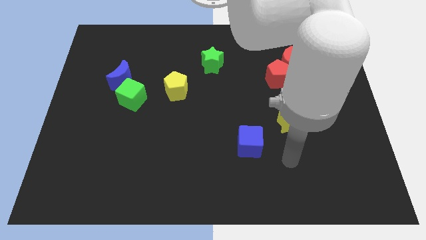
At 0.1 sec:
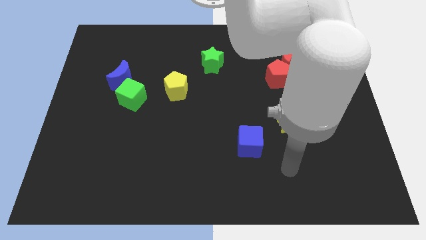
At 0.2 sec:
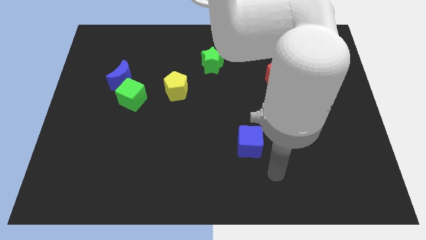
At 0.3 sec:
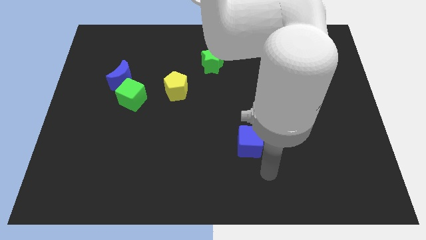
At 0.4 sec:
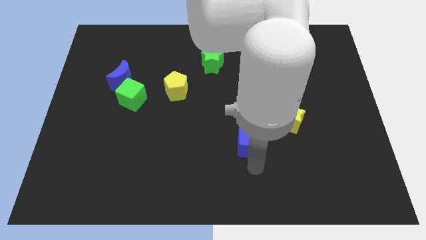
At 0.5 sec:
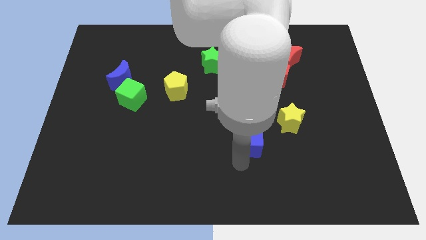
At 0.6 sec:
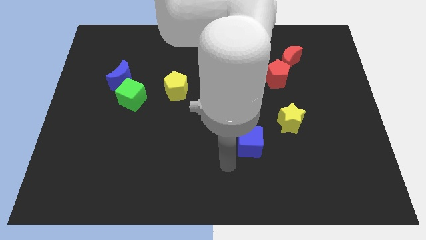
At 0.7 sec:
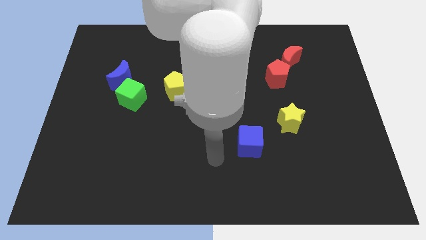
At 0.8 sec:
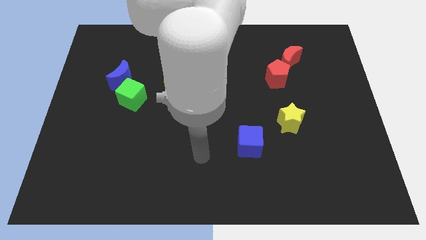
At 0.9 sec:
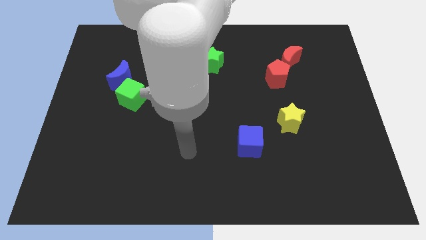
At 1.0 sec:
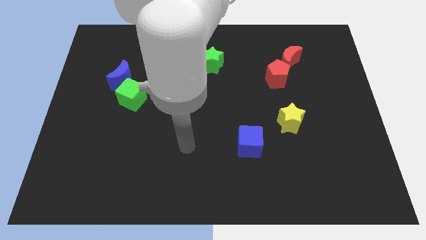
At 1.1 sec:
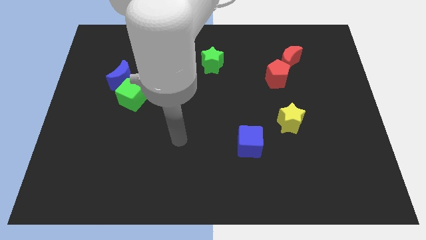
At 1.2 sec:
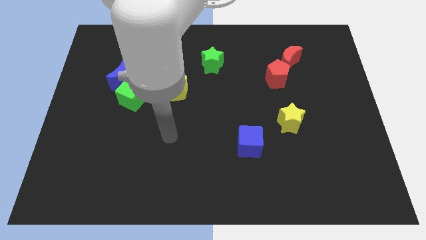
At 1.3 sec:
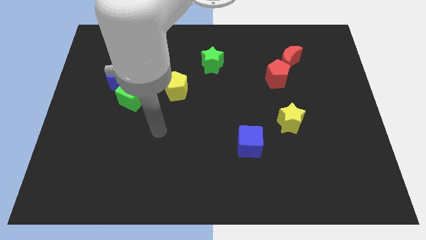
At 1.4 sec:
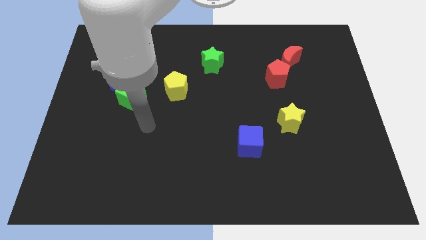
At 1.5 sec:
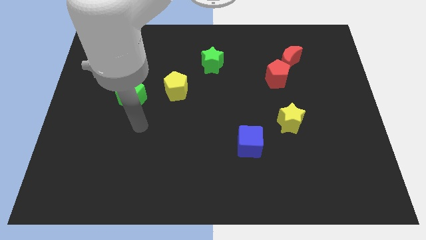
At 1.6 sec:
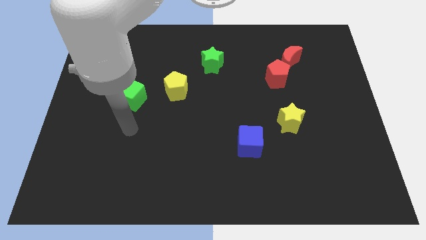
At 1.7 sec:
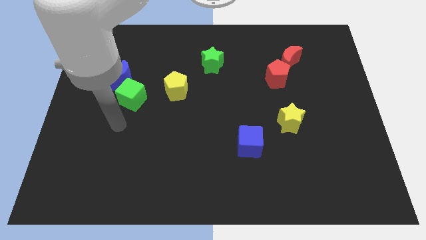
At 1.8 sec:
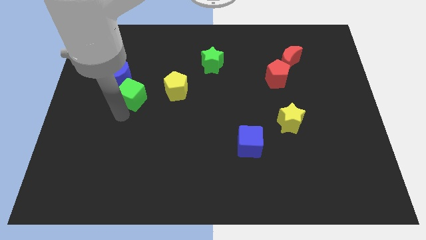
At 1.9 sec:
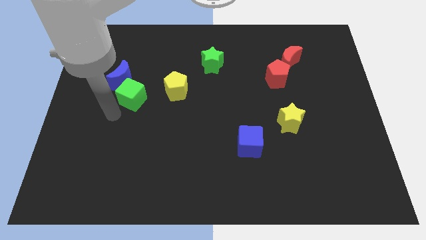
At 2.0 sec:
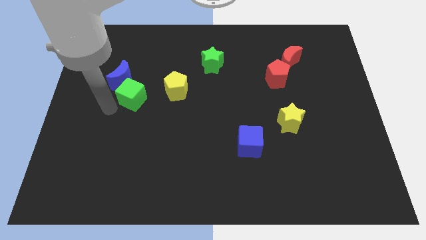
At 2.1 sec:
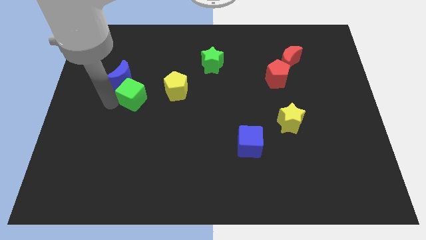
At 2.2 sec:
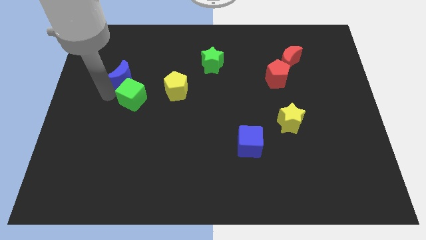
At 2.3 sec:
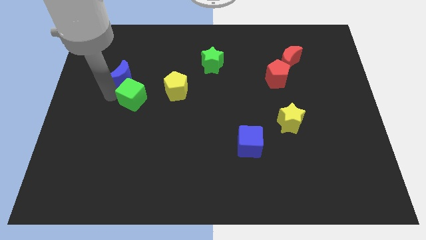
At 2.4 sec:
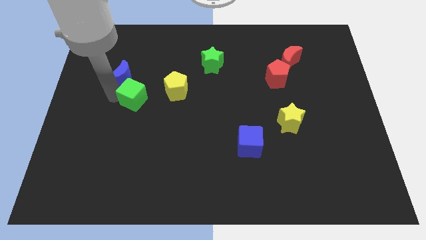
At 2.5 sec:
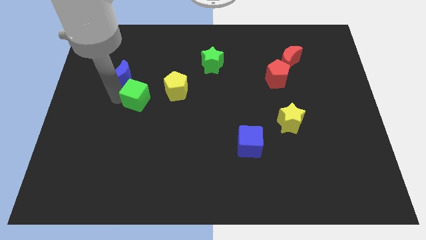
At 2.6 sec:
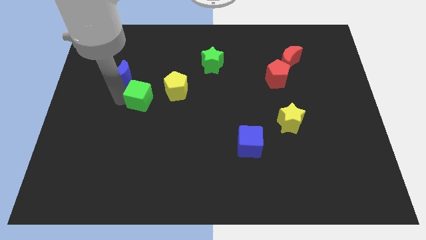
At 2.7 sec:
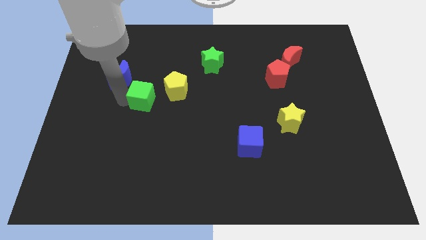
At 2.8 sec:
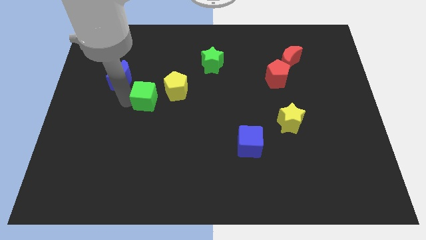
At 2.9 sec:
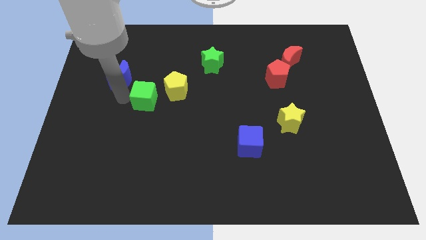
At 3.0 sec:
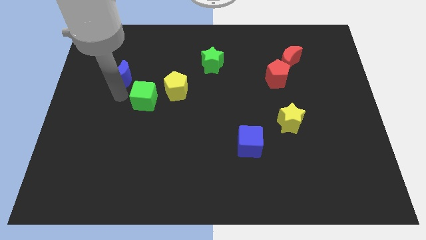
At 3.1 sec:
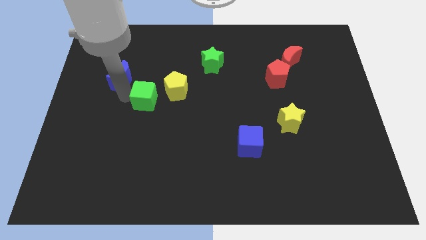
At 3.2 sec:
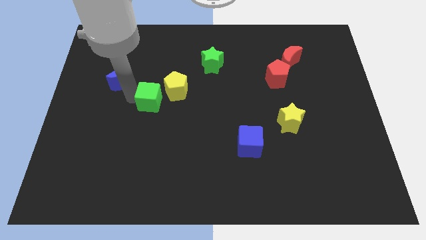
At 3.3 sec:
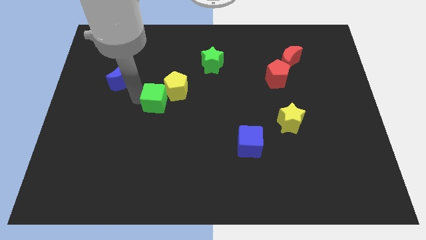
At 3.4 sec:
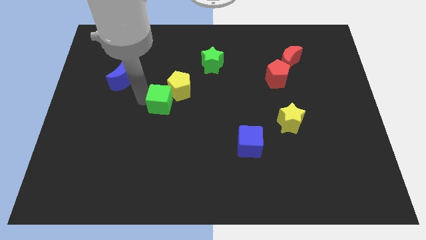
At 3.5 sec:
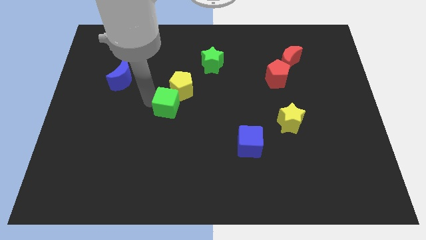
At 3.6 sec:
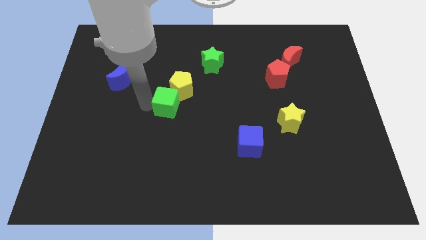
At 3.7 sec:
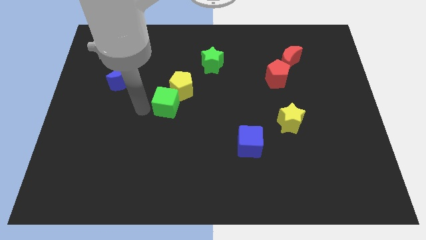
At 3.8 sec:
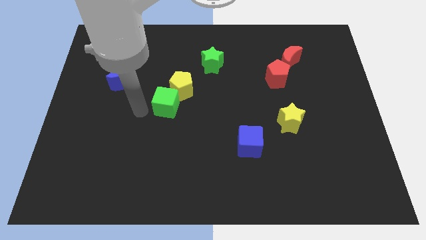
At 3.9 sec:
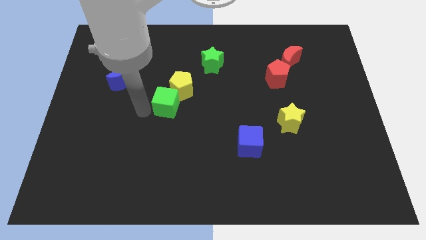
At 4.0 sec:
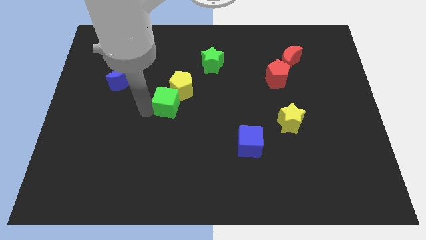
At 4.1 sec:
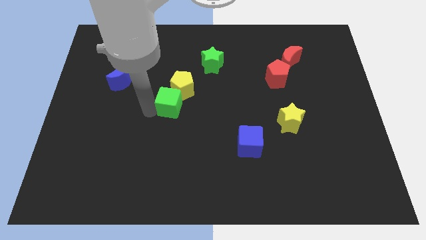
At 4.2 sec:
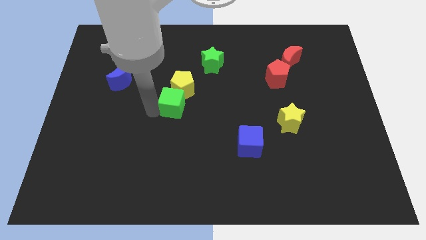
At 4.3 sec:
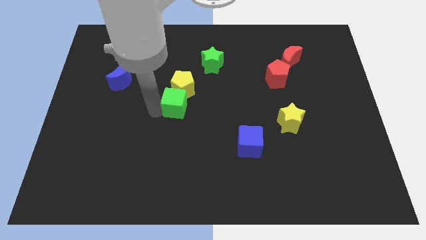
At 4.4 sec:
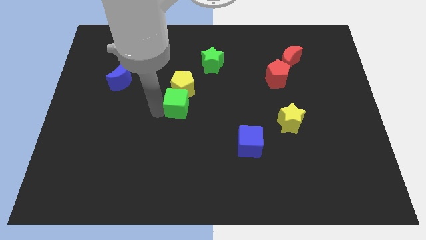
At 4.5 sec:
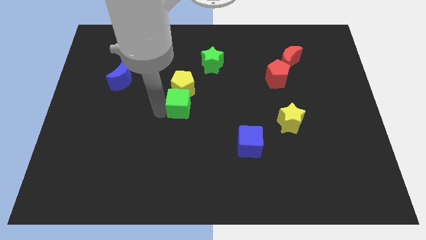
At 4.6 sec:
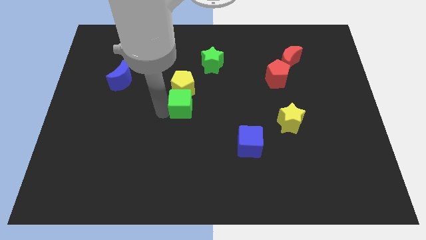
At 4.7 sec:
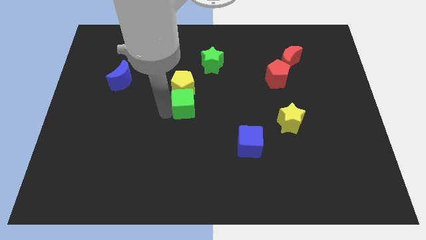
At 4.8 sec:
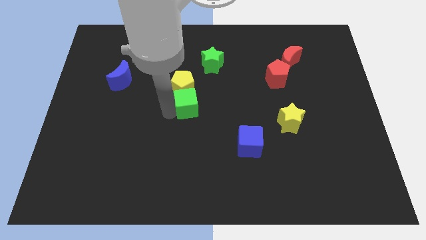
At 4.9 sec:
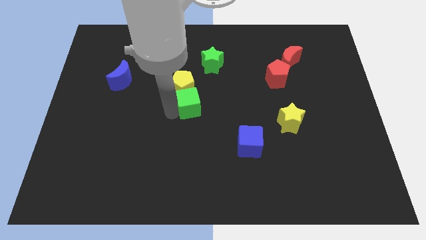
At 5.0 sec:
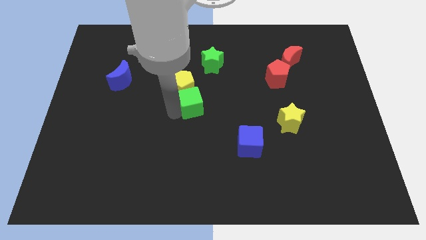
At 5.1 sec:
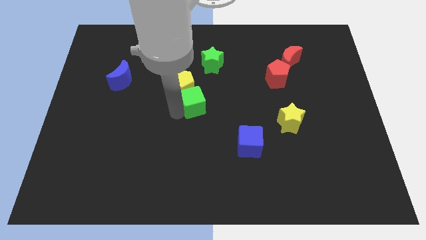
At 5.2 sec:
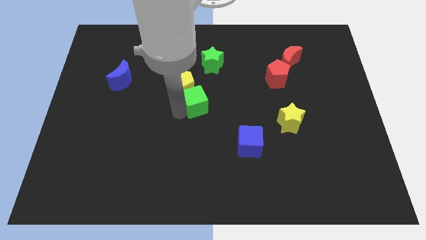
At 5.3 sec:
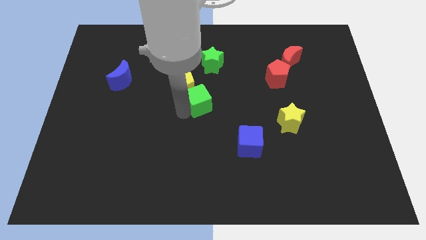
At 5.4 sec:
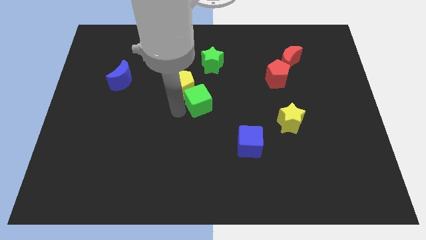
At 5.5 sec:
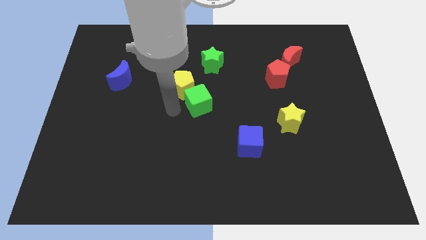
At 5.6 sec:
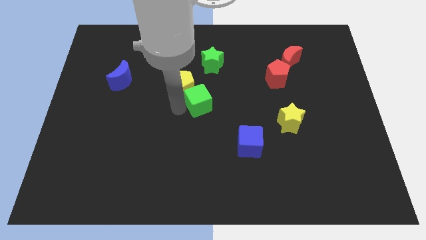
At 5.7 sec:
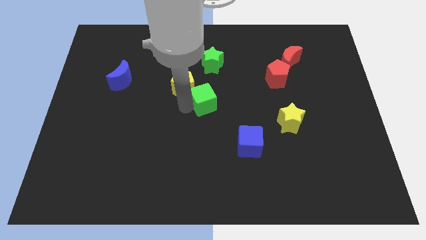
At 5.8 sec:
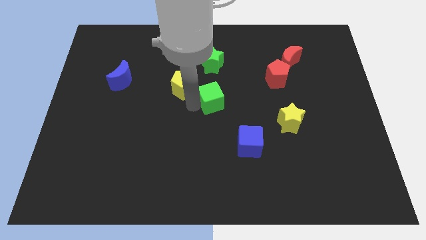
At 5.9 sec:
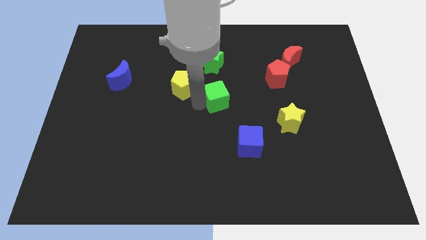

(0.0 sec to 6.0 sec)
push the green cube right

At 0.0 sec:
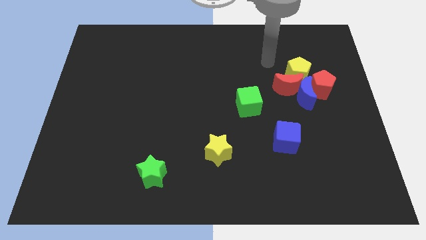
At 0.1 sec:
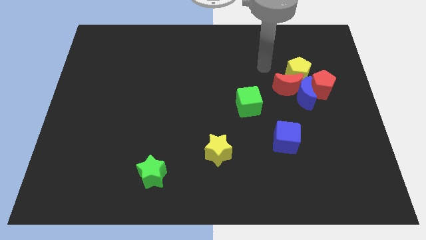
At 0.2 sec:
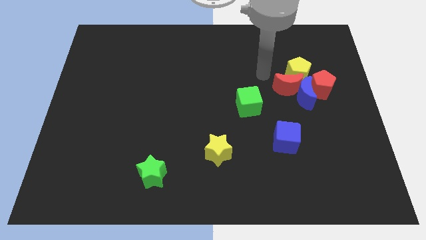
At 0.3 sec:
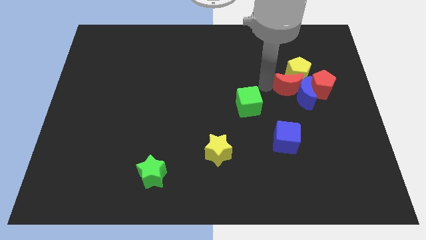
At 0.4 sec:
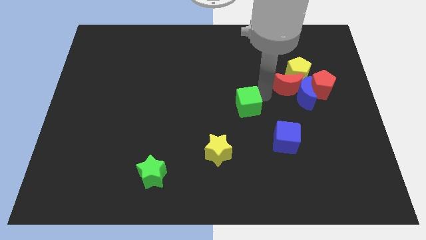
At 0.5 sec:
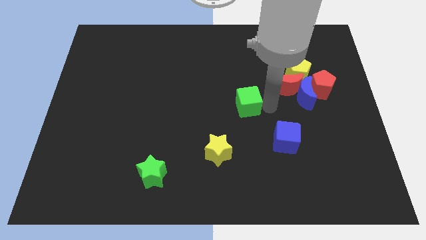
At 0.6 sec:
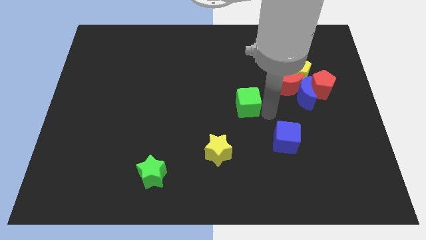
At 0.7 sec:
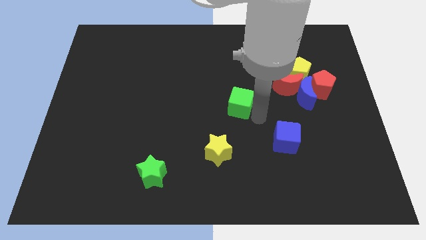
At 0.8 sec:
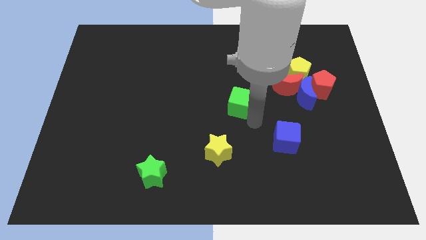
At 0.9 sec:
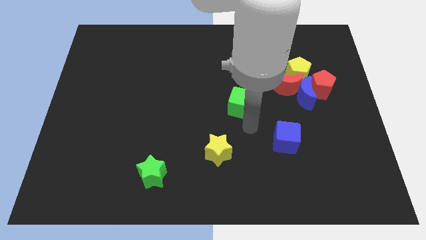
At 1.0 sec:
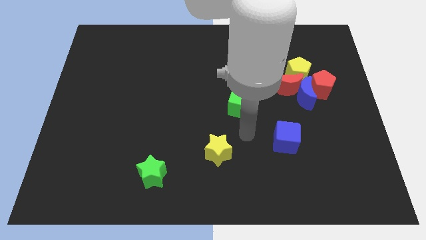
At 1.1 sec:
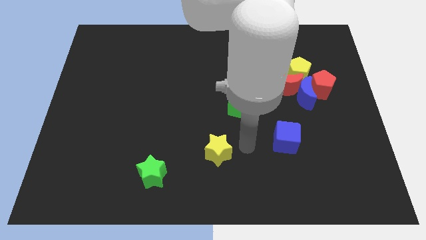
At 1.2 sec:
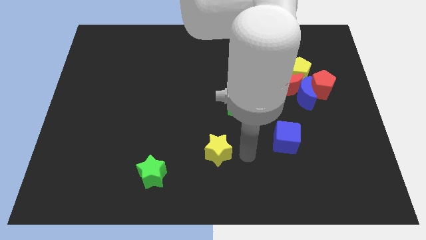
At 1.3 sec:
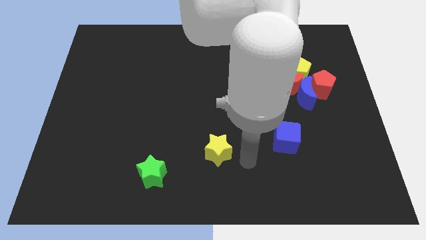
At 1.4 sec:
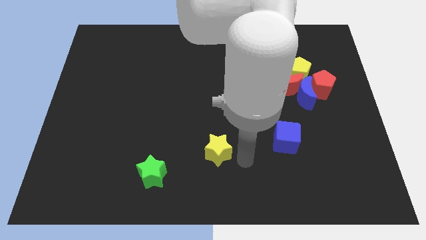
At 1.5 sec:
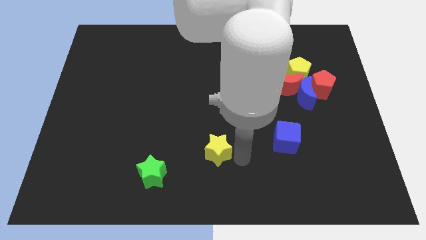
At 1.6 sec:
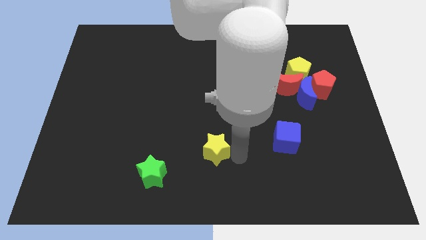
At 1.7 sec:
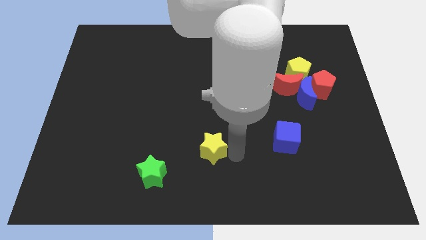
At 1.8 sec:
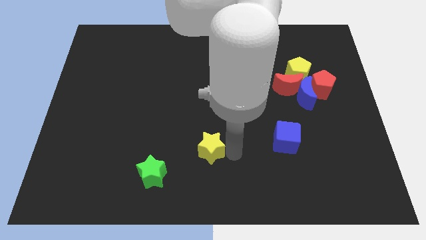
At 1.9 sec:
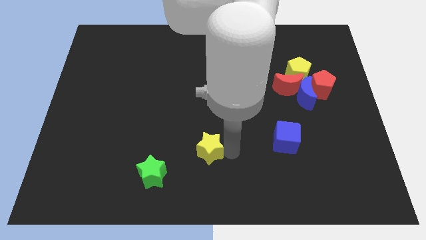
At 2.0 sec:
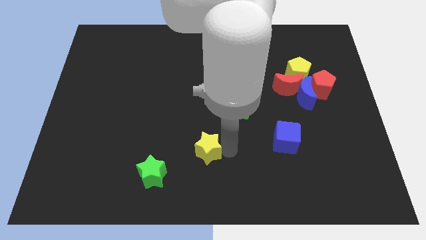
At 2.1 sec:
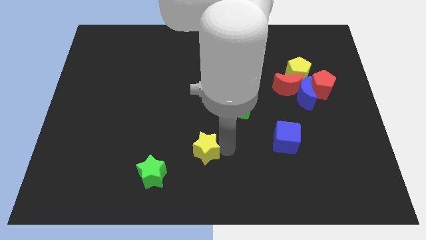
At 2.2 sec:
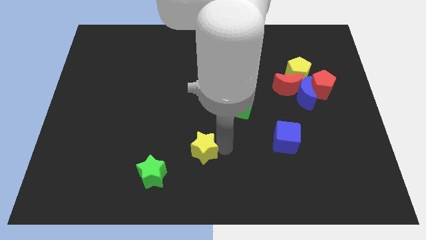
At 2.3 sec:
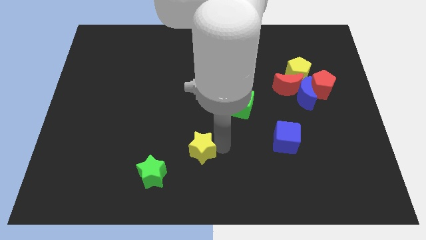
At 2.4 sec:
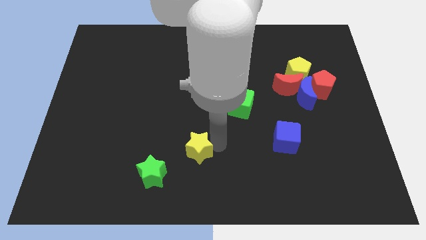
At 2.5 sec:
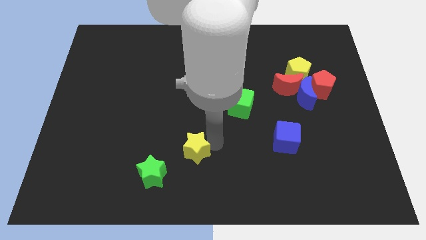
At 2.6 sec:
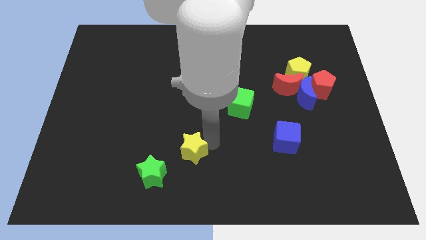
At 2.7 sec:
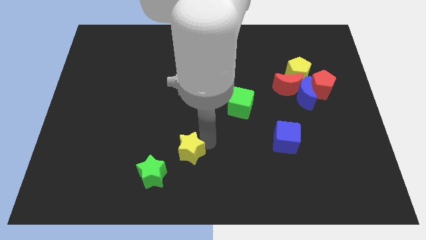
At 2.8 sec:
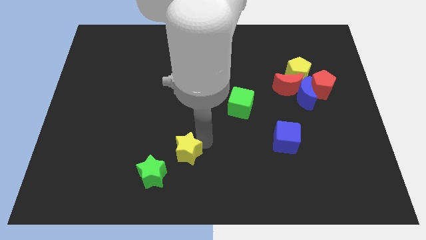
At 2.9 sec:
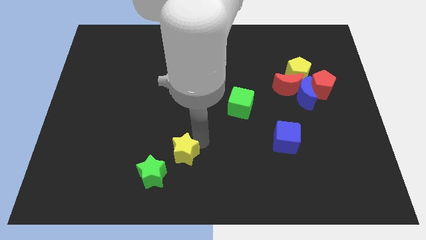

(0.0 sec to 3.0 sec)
slide the yellow star to the left slightly
